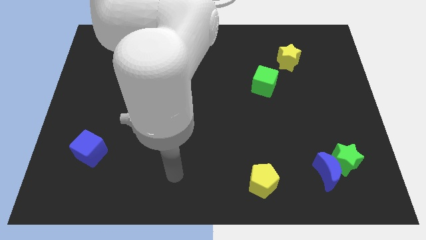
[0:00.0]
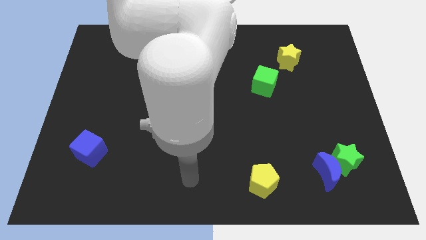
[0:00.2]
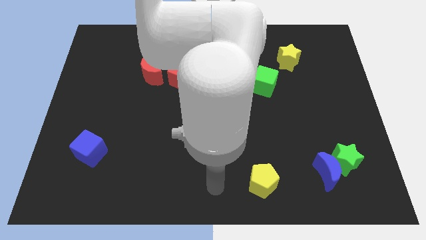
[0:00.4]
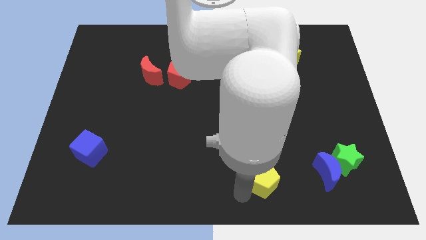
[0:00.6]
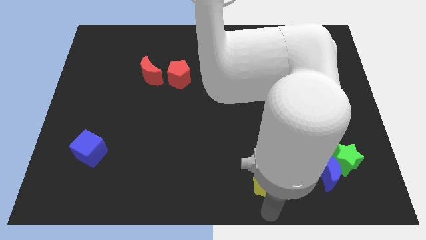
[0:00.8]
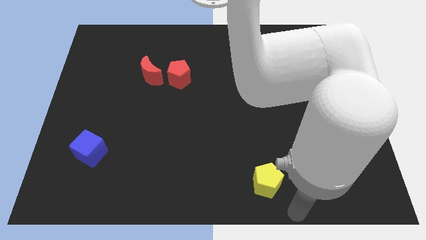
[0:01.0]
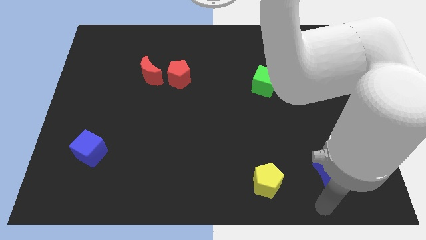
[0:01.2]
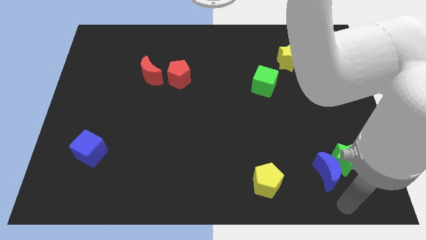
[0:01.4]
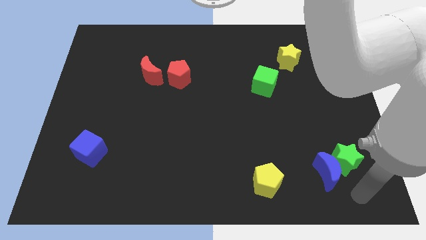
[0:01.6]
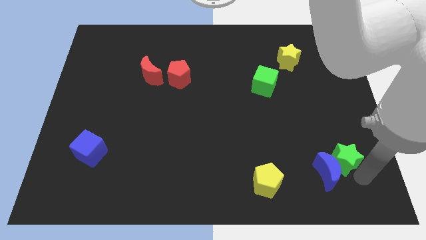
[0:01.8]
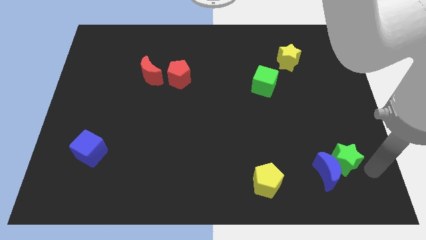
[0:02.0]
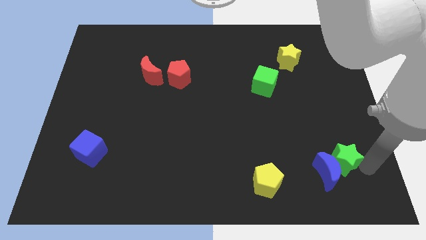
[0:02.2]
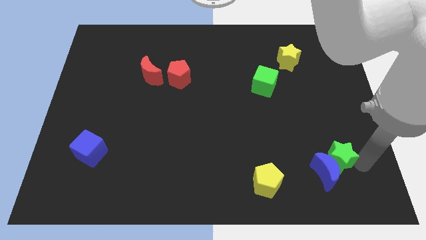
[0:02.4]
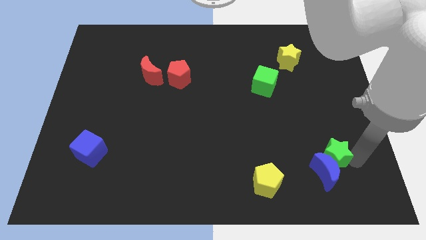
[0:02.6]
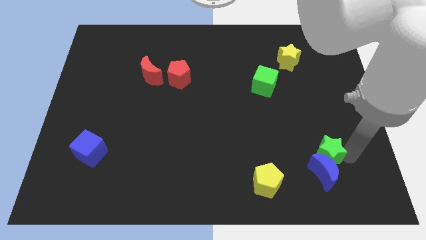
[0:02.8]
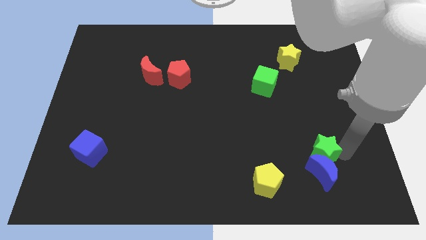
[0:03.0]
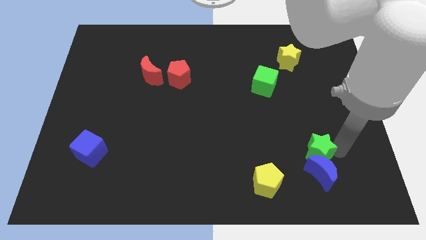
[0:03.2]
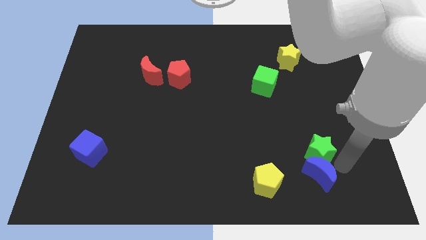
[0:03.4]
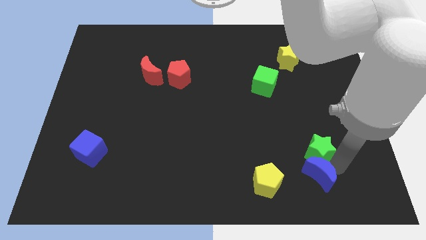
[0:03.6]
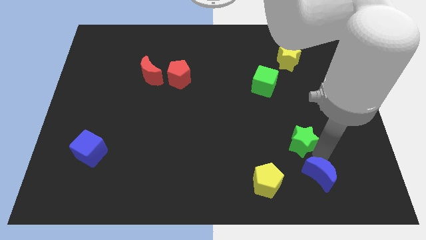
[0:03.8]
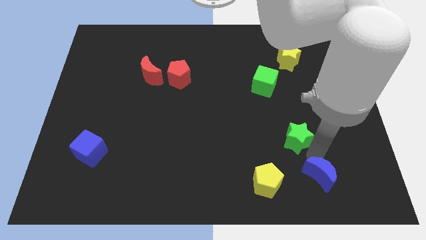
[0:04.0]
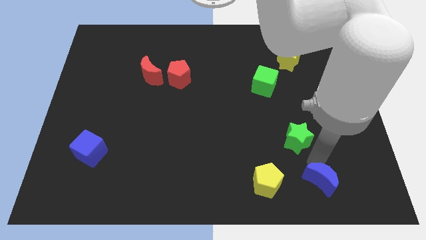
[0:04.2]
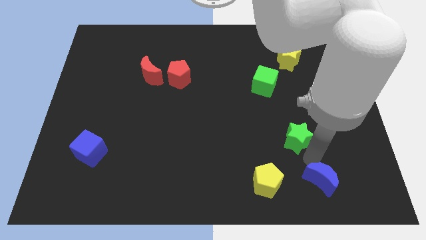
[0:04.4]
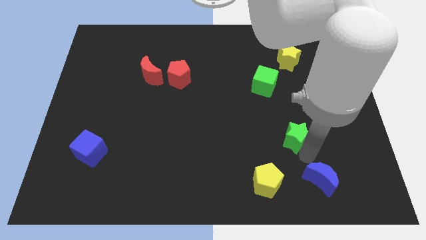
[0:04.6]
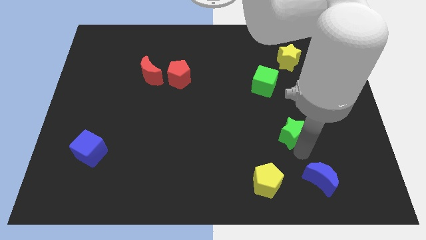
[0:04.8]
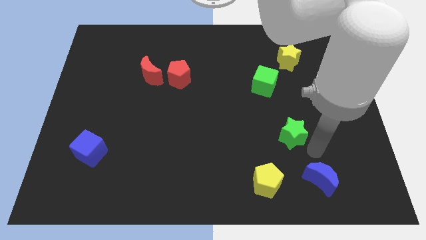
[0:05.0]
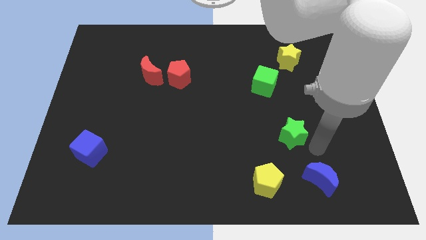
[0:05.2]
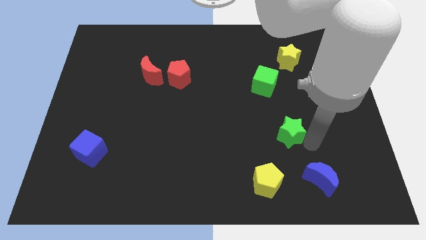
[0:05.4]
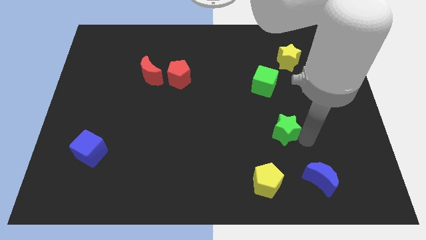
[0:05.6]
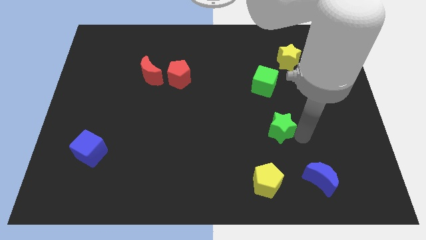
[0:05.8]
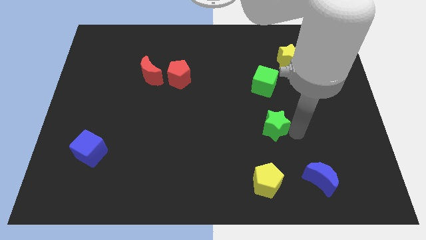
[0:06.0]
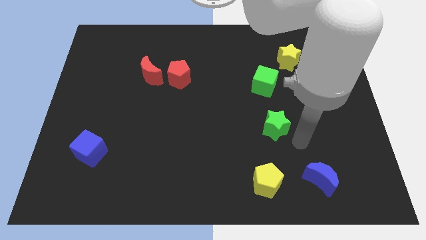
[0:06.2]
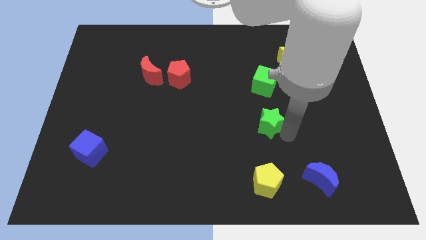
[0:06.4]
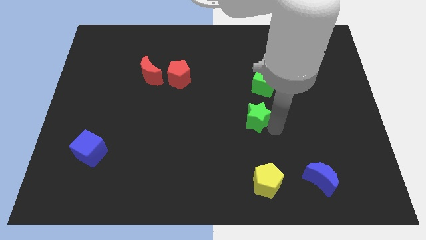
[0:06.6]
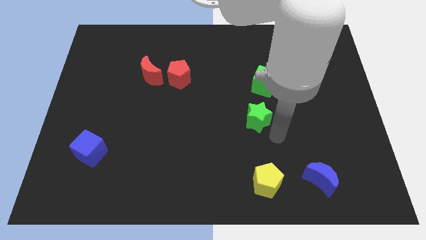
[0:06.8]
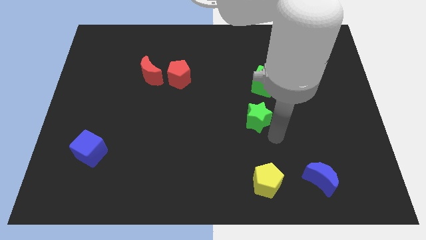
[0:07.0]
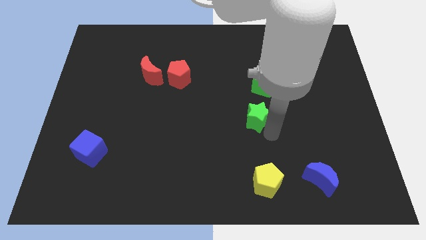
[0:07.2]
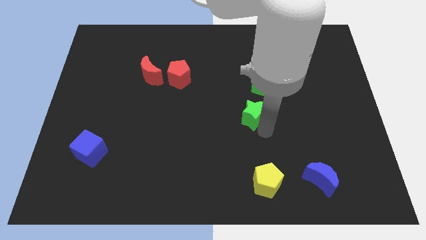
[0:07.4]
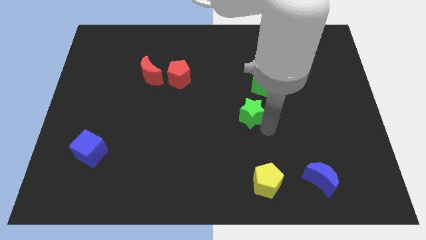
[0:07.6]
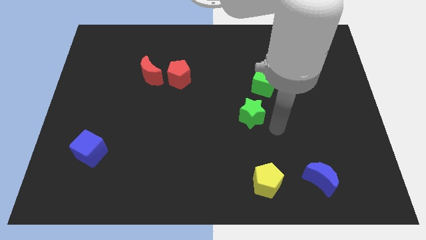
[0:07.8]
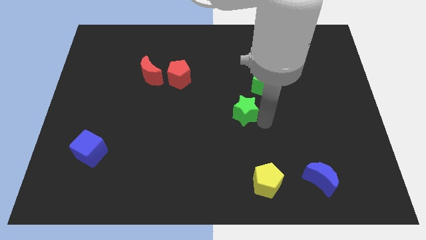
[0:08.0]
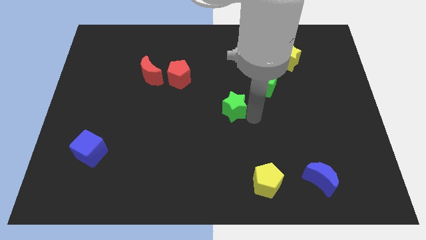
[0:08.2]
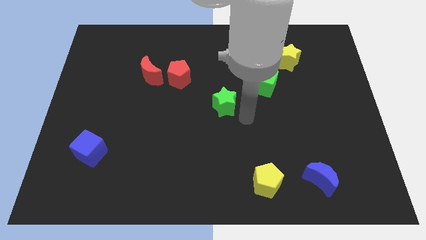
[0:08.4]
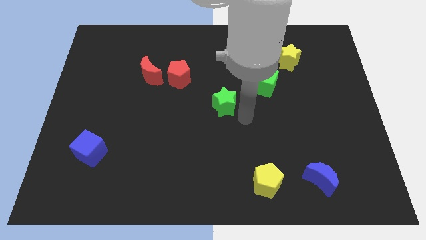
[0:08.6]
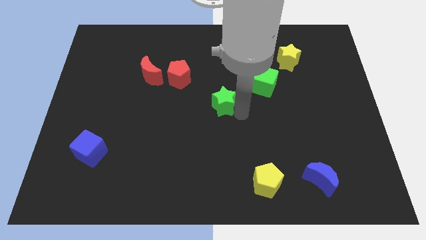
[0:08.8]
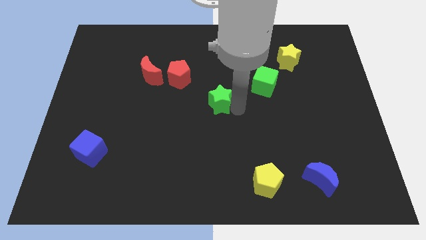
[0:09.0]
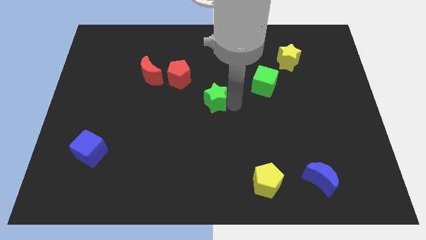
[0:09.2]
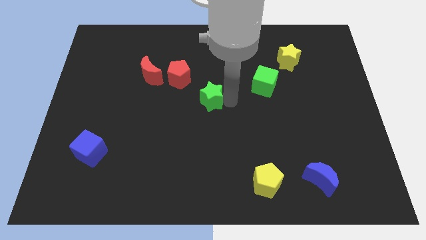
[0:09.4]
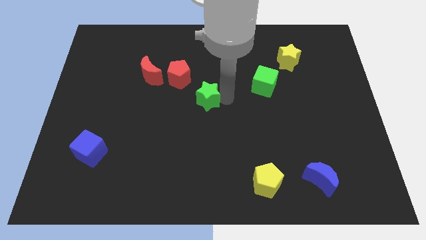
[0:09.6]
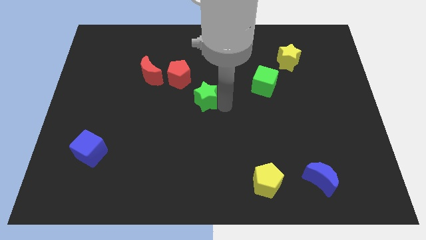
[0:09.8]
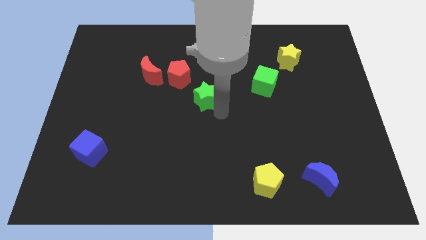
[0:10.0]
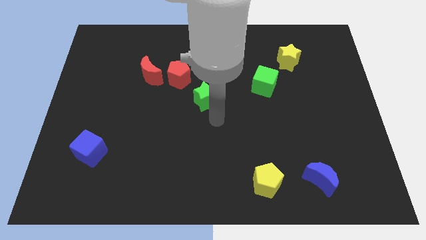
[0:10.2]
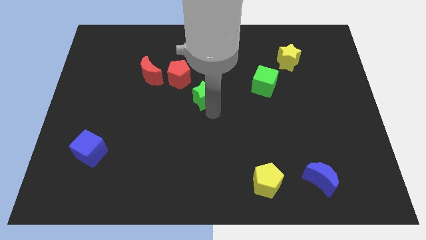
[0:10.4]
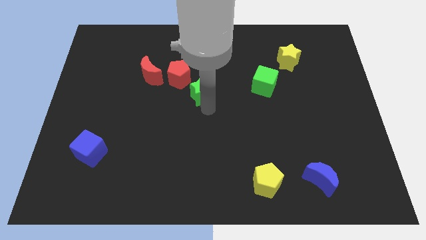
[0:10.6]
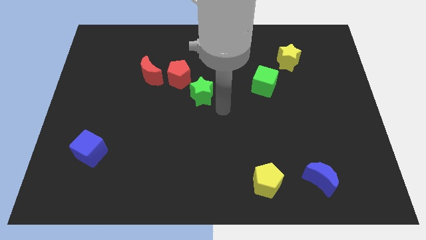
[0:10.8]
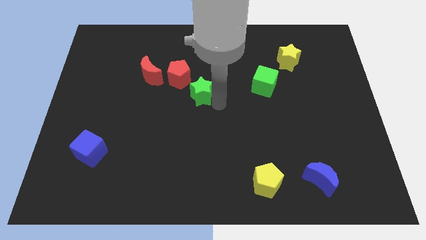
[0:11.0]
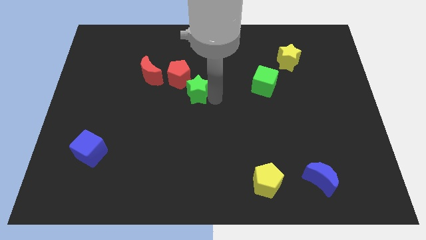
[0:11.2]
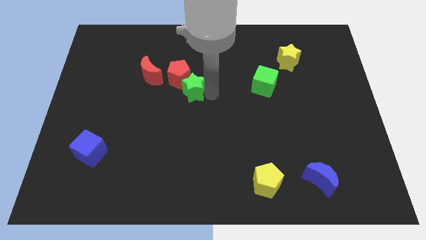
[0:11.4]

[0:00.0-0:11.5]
move the green star towards the red pentagon

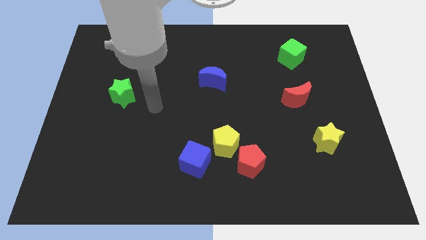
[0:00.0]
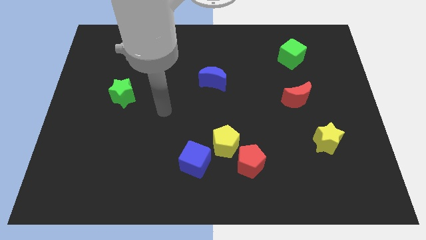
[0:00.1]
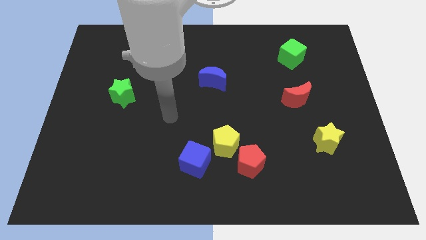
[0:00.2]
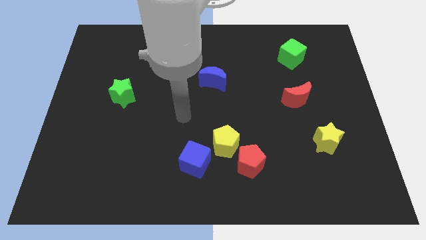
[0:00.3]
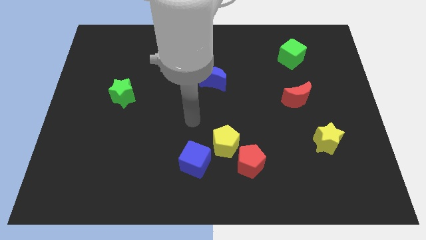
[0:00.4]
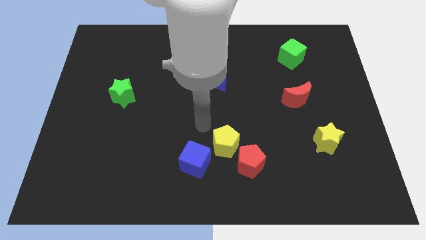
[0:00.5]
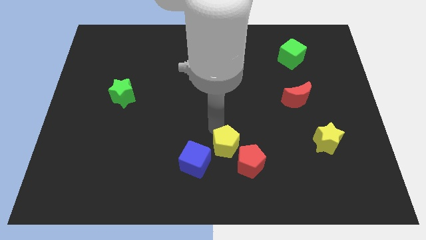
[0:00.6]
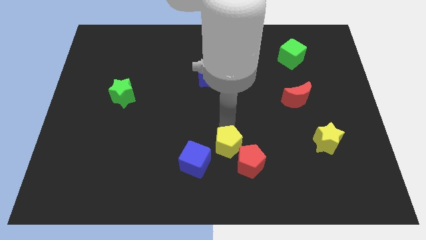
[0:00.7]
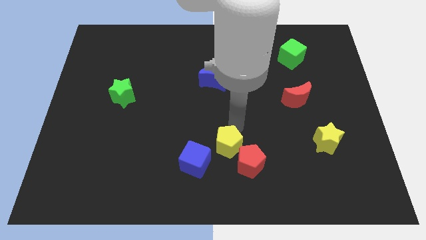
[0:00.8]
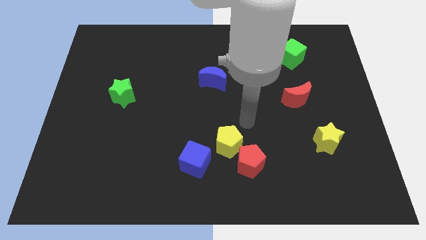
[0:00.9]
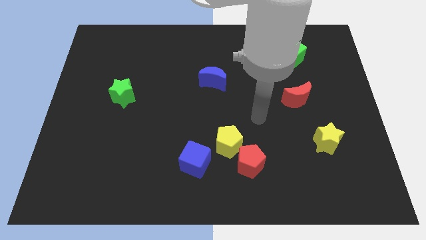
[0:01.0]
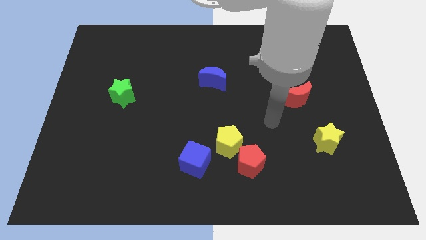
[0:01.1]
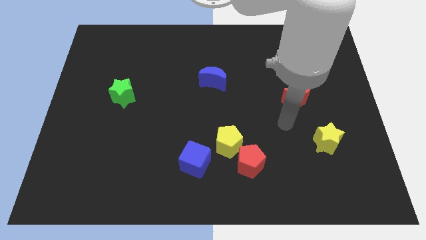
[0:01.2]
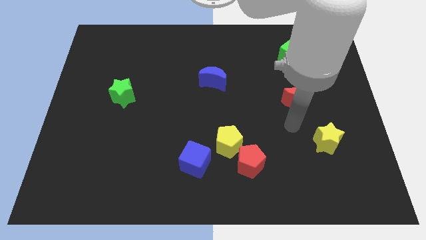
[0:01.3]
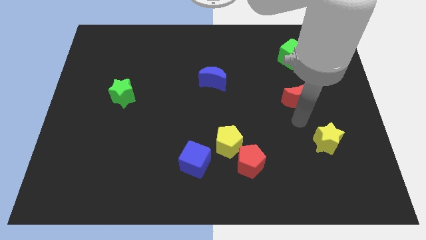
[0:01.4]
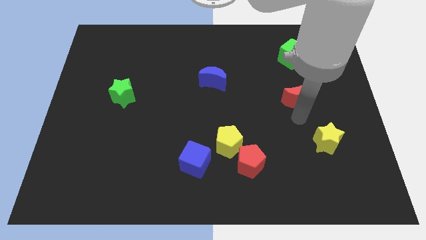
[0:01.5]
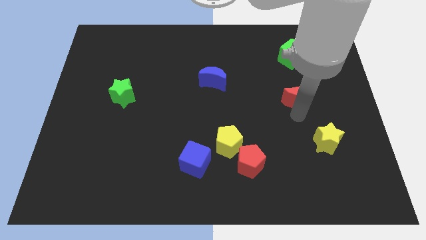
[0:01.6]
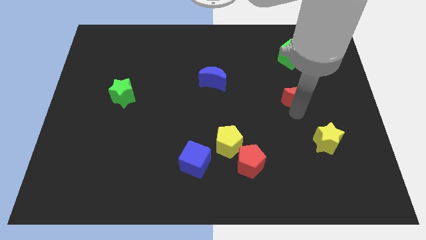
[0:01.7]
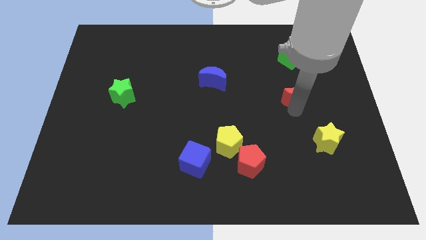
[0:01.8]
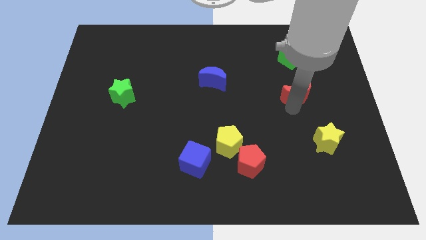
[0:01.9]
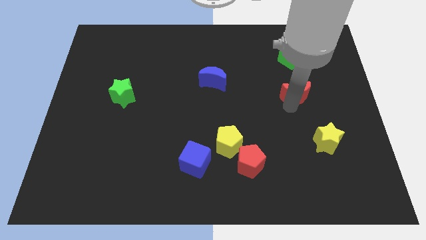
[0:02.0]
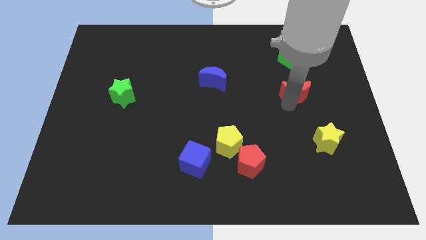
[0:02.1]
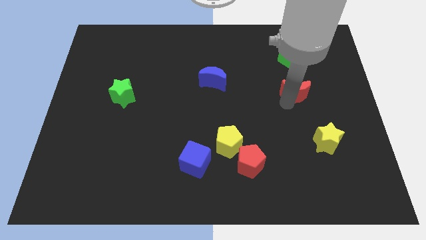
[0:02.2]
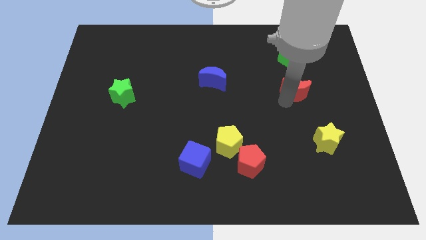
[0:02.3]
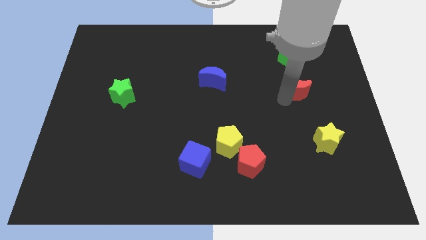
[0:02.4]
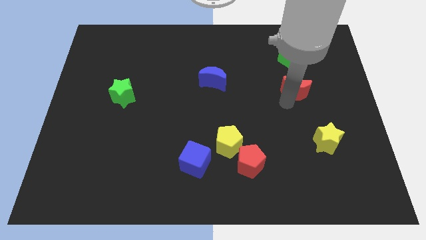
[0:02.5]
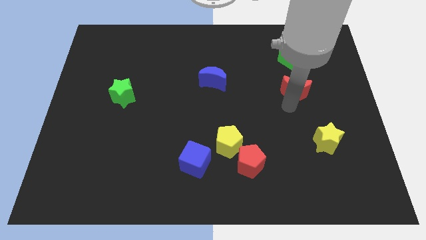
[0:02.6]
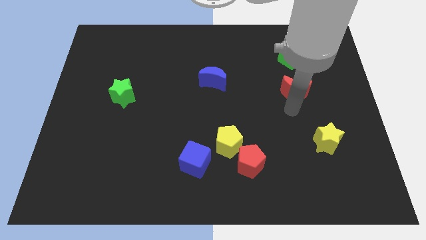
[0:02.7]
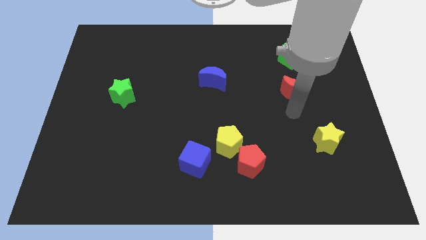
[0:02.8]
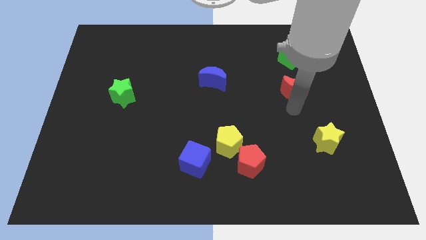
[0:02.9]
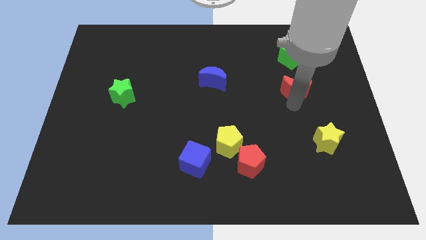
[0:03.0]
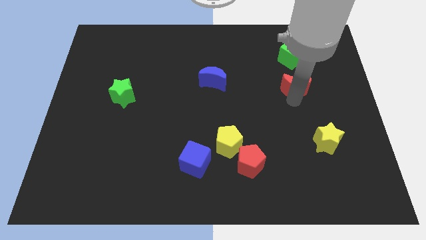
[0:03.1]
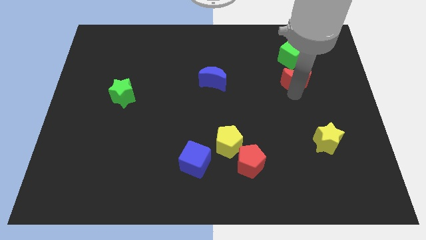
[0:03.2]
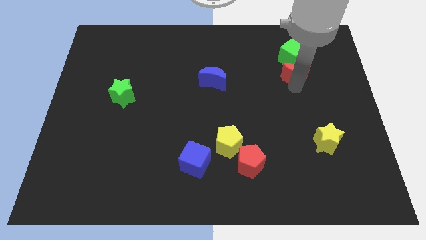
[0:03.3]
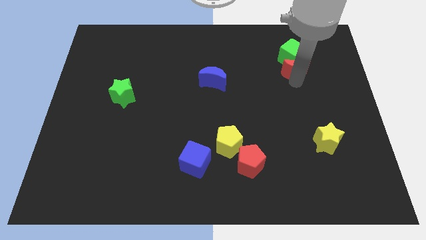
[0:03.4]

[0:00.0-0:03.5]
push the red moon close to the green cube
